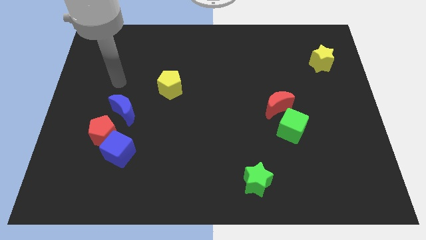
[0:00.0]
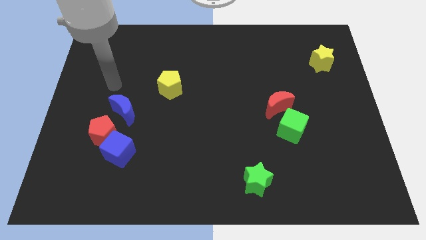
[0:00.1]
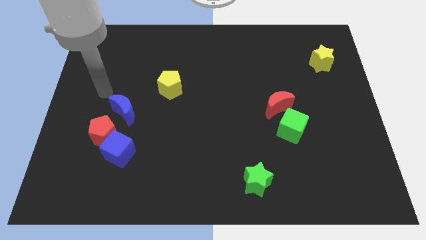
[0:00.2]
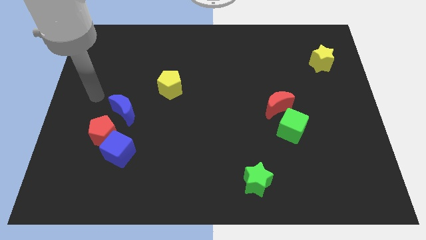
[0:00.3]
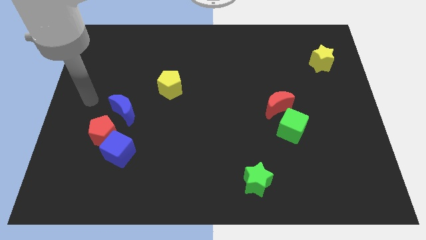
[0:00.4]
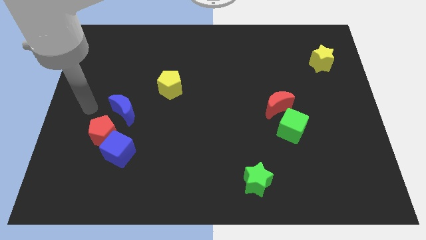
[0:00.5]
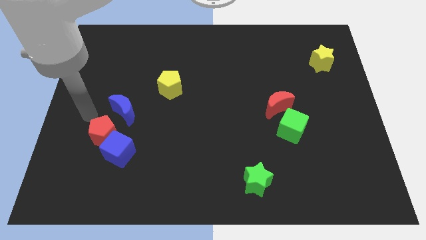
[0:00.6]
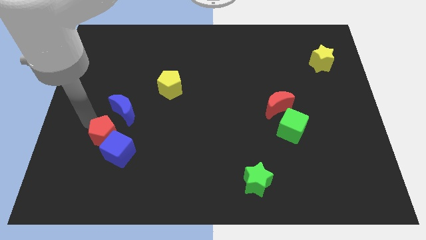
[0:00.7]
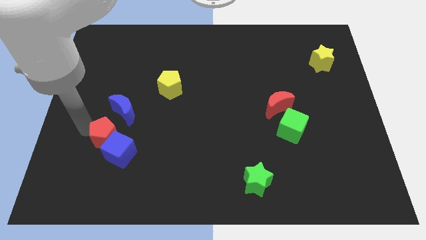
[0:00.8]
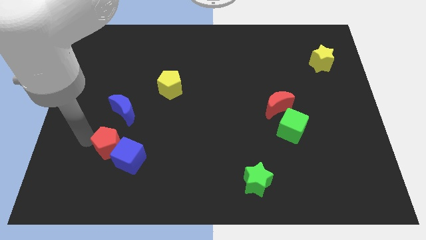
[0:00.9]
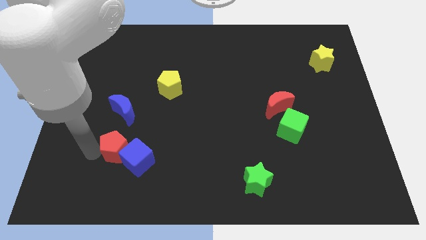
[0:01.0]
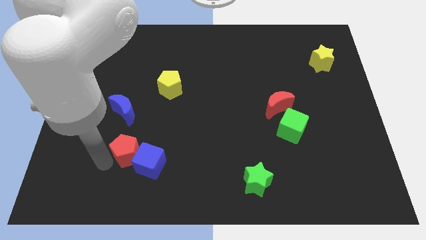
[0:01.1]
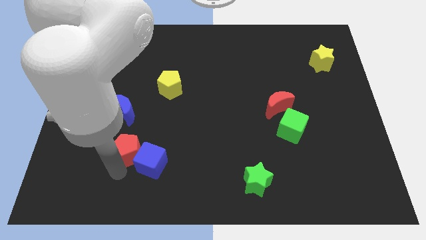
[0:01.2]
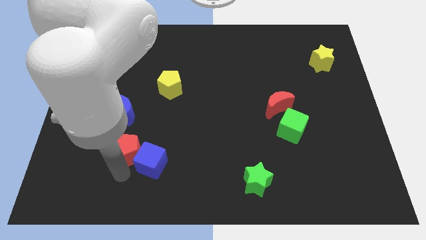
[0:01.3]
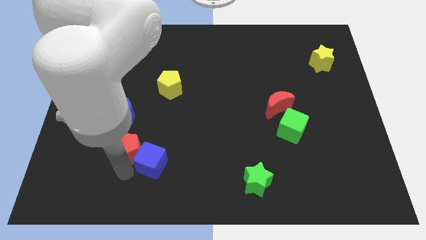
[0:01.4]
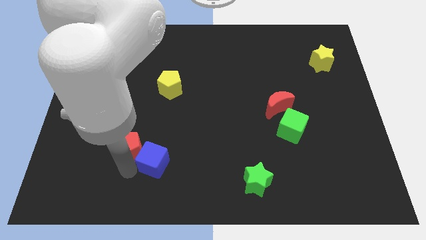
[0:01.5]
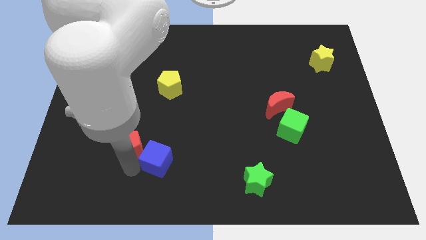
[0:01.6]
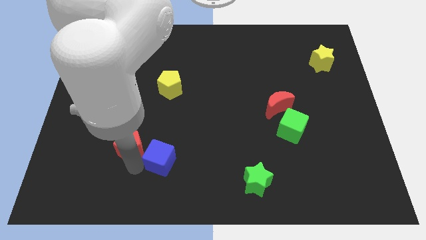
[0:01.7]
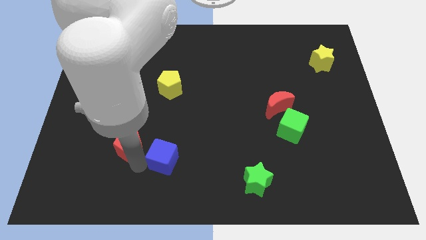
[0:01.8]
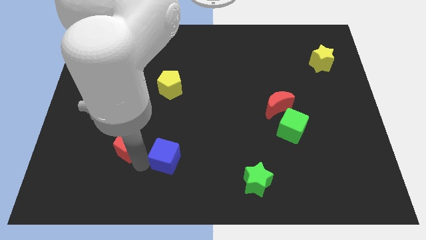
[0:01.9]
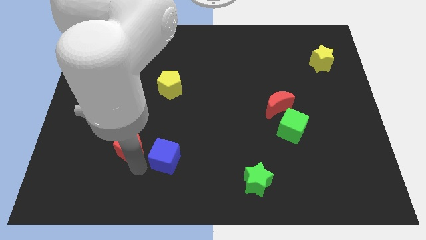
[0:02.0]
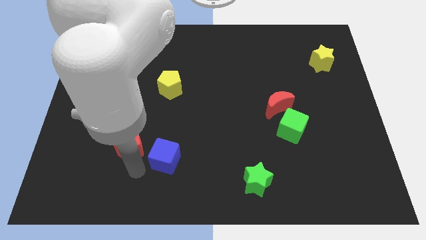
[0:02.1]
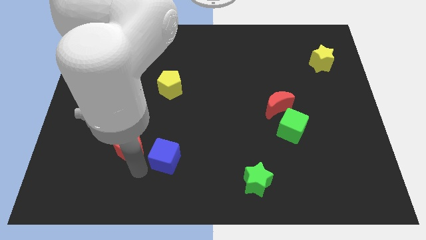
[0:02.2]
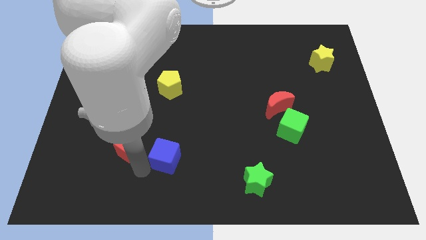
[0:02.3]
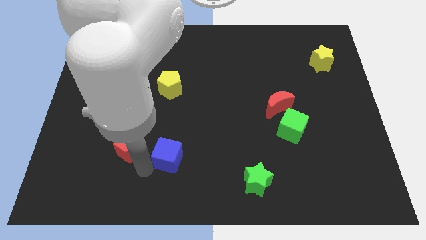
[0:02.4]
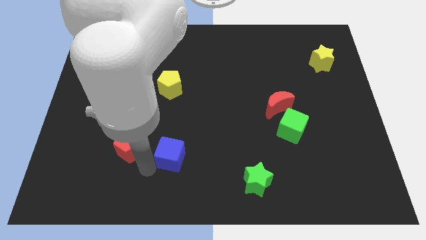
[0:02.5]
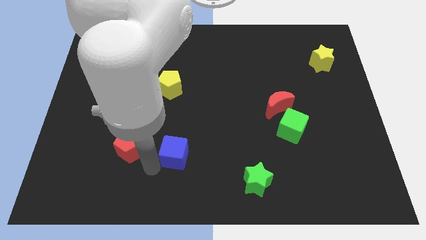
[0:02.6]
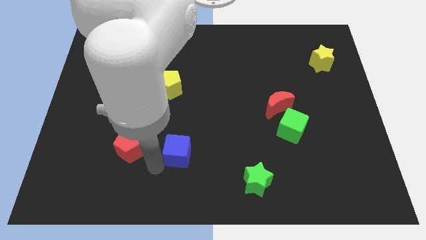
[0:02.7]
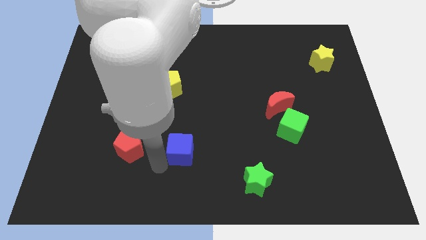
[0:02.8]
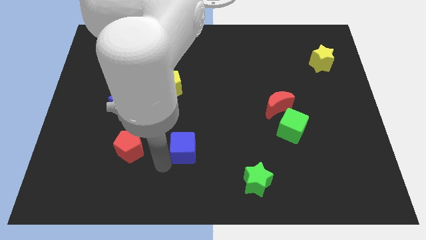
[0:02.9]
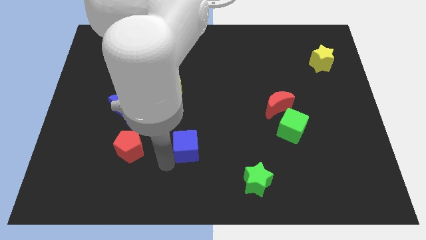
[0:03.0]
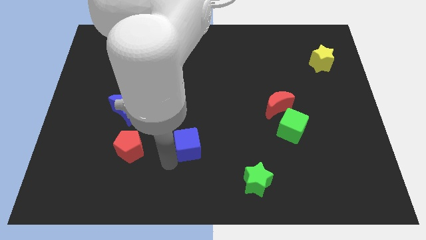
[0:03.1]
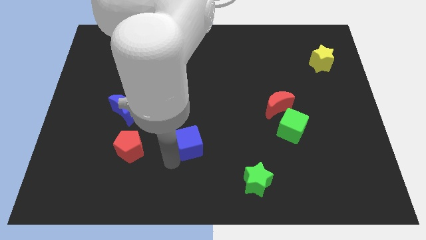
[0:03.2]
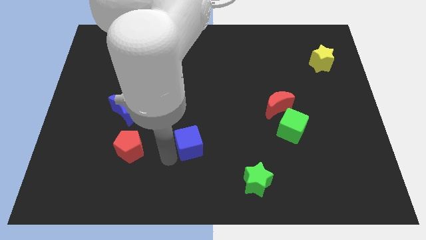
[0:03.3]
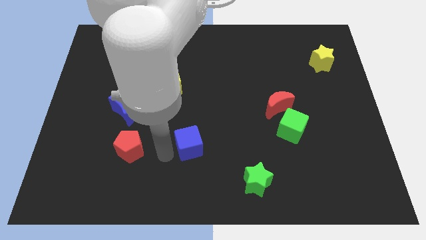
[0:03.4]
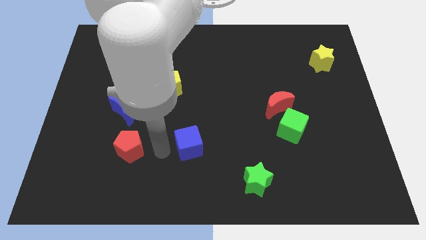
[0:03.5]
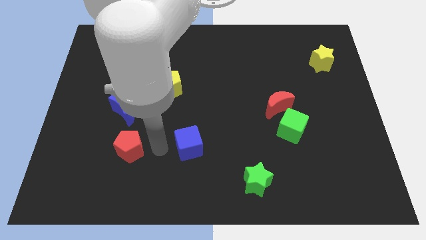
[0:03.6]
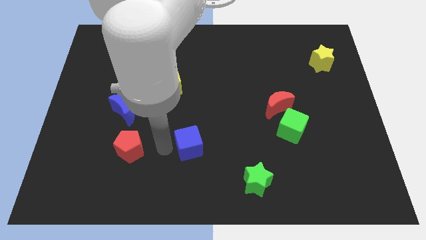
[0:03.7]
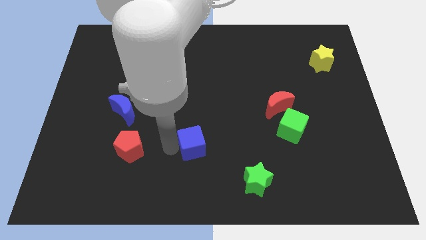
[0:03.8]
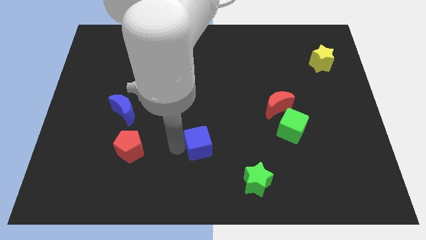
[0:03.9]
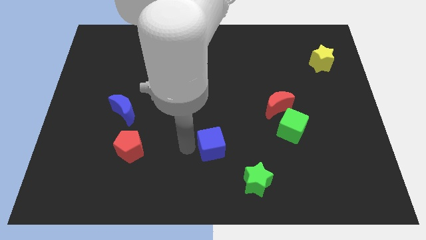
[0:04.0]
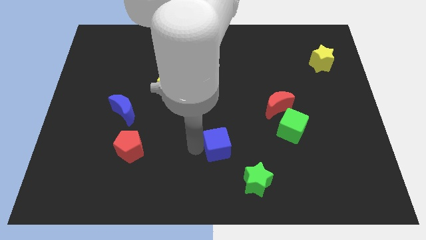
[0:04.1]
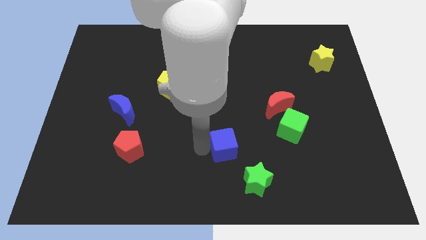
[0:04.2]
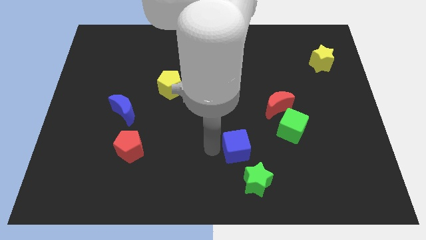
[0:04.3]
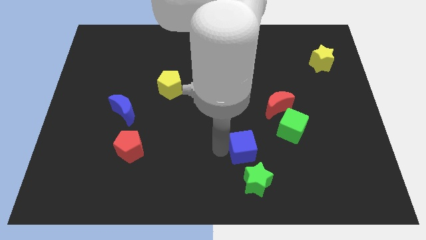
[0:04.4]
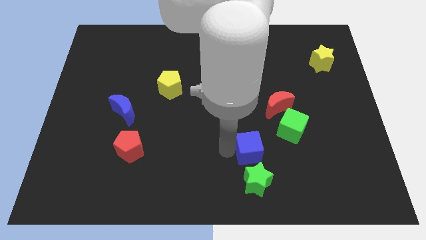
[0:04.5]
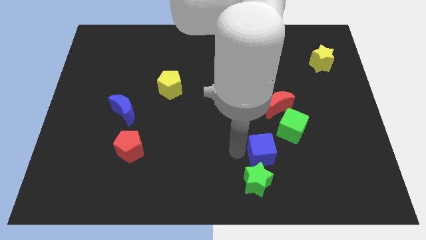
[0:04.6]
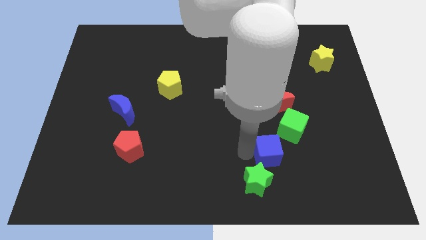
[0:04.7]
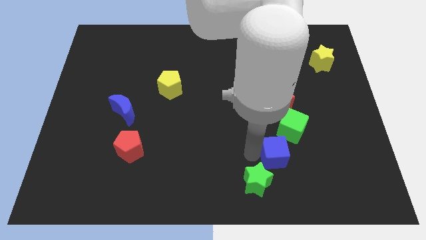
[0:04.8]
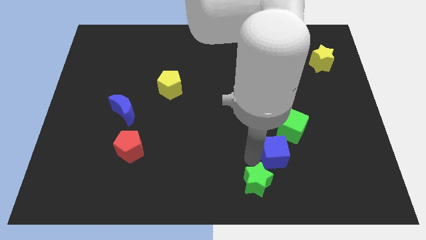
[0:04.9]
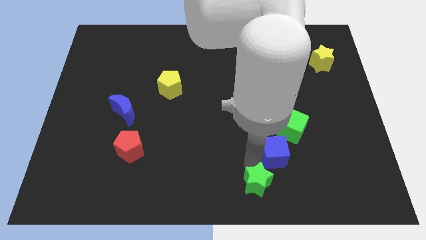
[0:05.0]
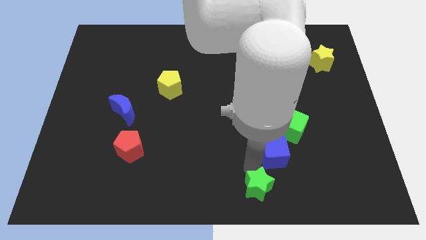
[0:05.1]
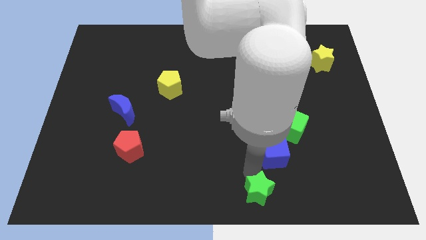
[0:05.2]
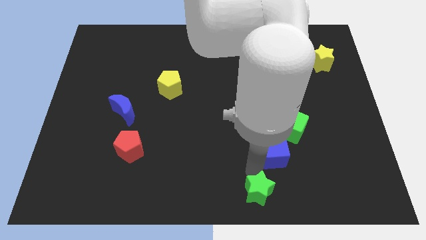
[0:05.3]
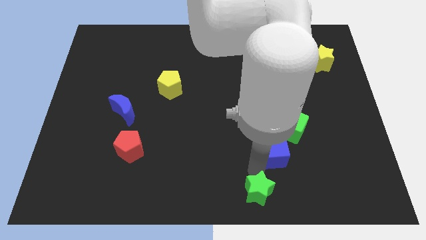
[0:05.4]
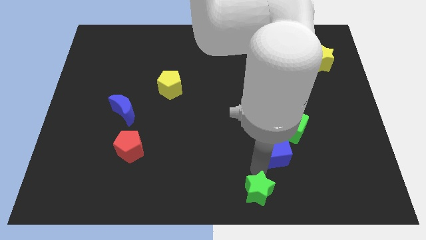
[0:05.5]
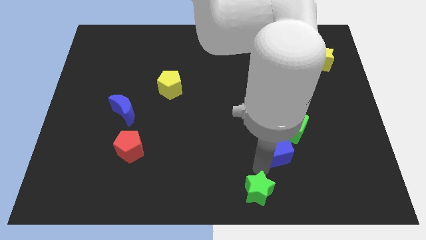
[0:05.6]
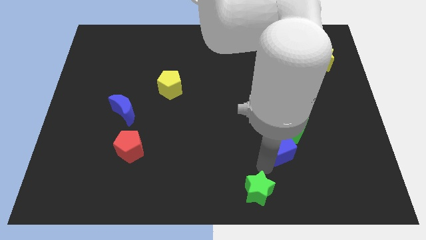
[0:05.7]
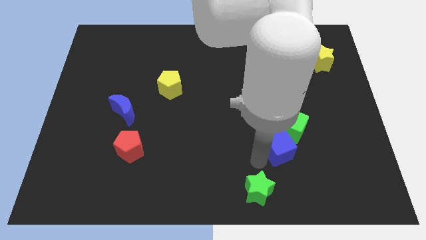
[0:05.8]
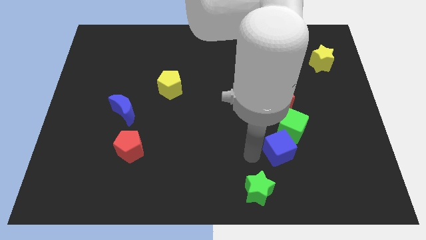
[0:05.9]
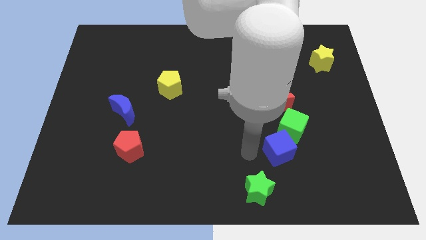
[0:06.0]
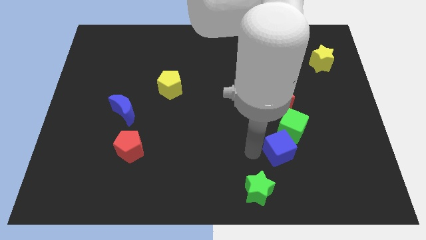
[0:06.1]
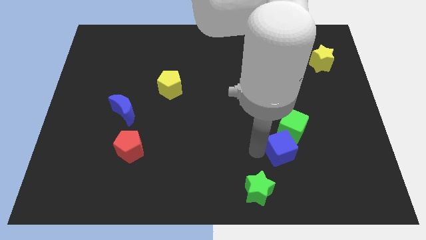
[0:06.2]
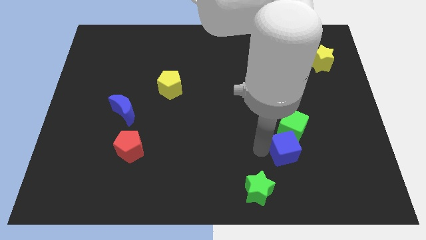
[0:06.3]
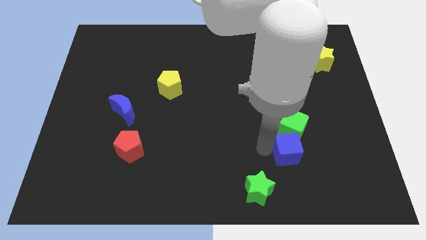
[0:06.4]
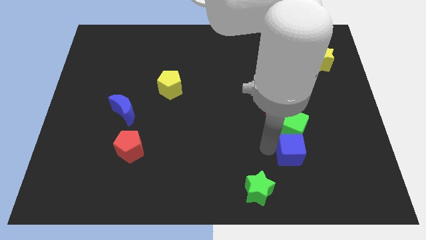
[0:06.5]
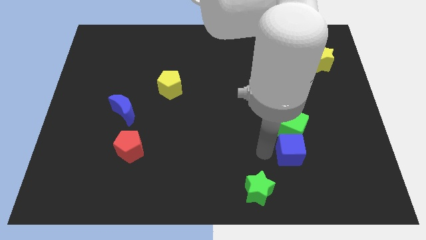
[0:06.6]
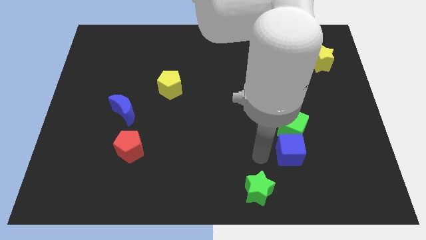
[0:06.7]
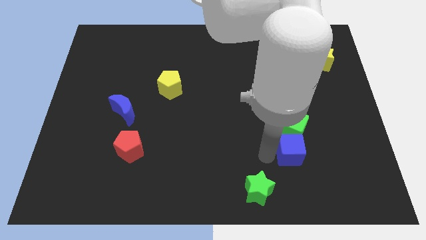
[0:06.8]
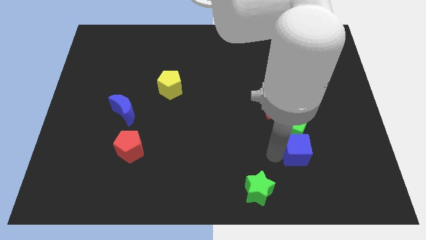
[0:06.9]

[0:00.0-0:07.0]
slide the blue cube to the bottom right of the green cube
